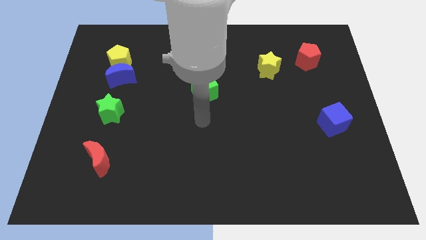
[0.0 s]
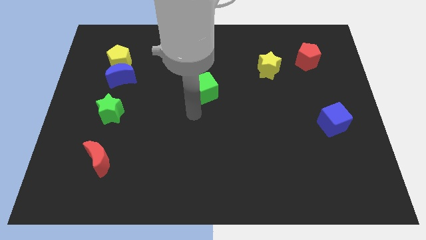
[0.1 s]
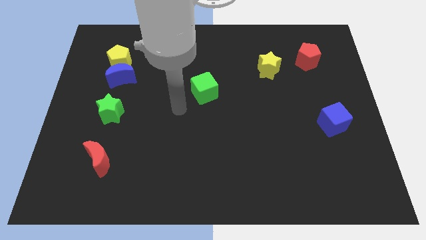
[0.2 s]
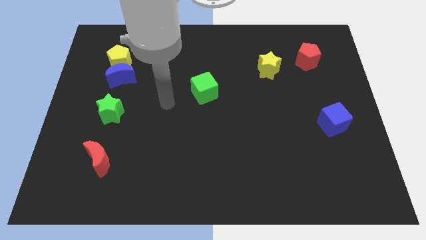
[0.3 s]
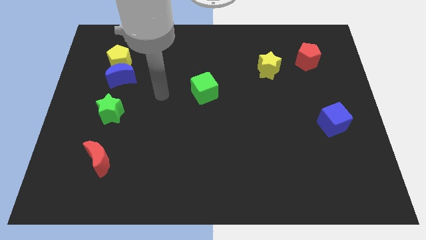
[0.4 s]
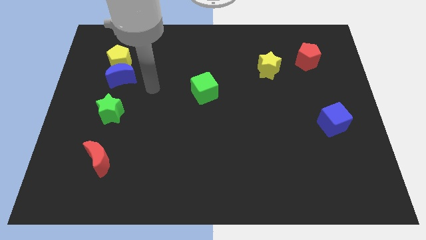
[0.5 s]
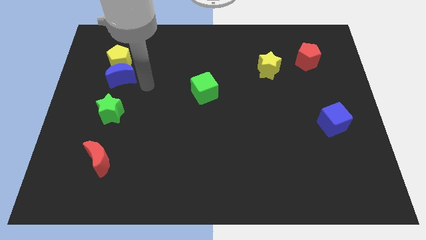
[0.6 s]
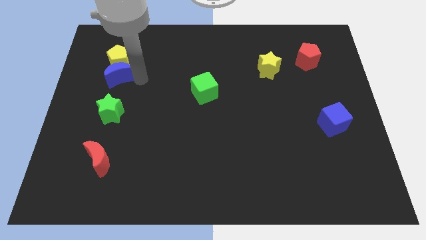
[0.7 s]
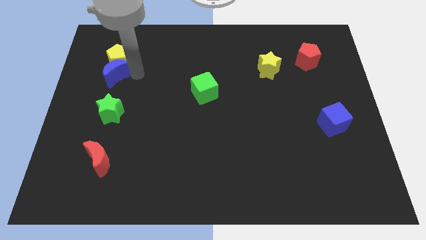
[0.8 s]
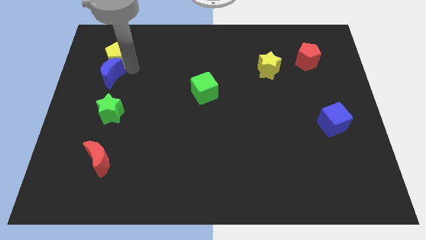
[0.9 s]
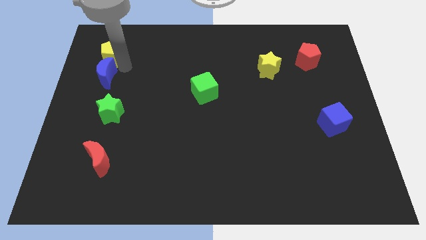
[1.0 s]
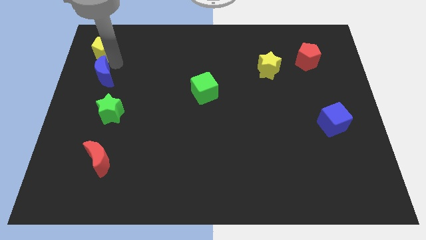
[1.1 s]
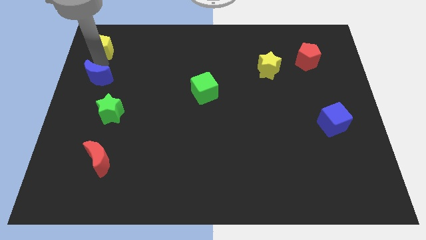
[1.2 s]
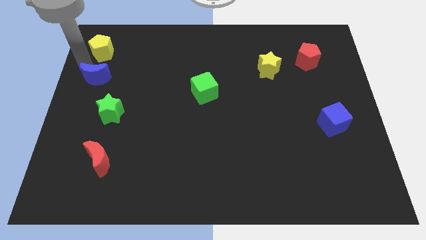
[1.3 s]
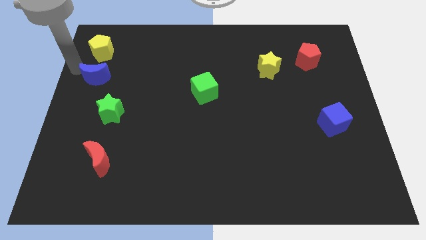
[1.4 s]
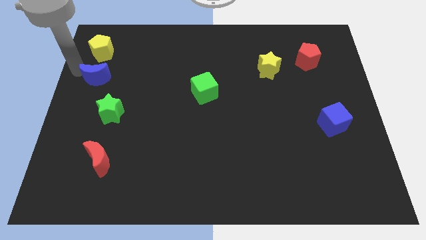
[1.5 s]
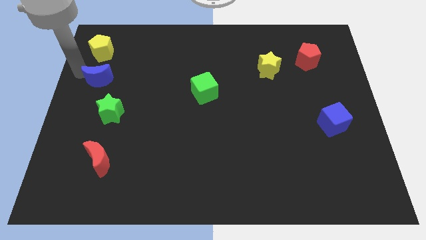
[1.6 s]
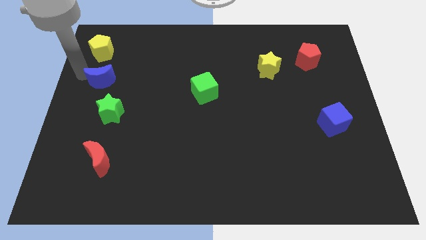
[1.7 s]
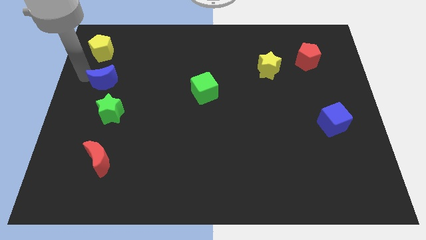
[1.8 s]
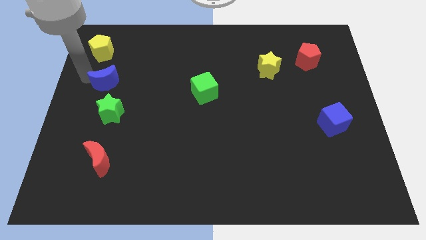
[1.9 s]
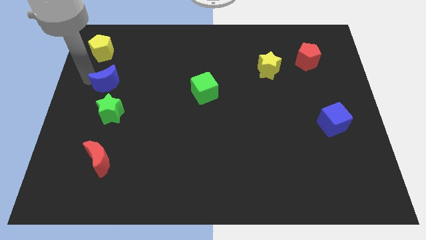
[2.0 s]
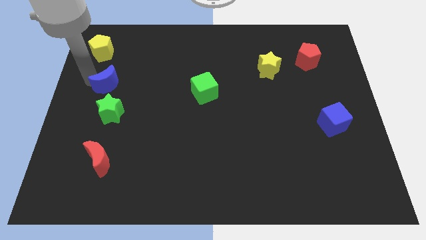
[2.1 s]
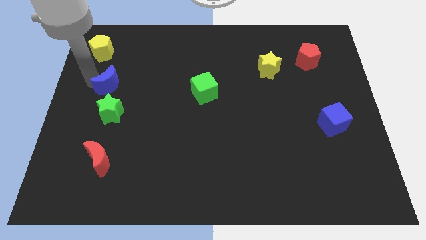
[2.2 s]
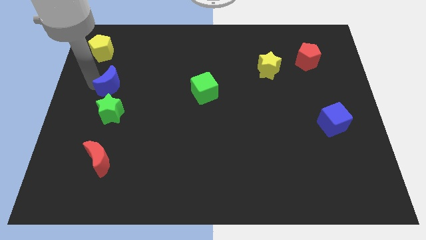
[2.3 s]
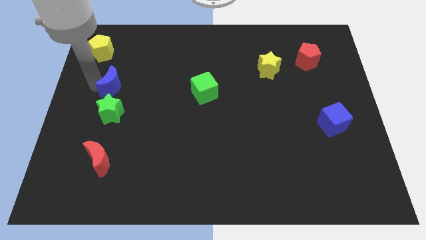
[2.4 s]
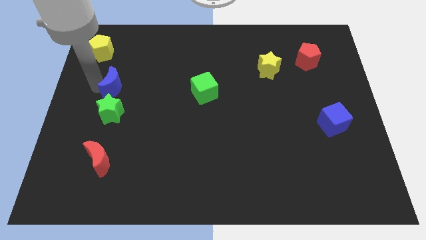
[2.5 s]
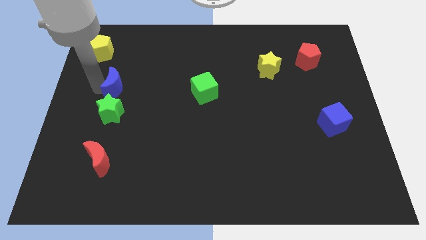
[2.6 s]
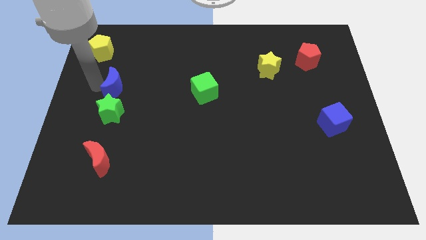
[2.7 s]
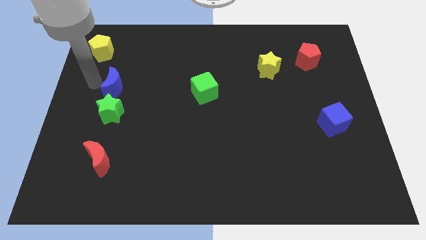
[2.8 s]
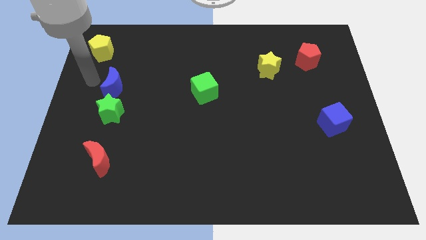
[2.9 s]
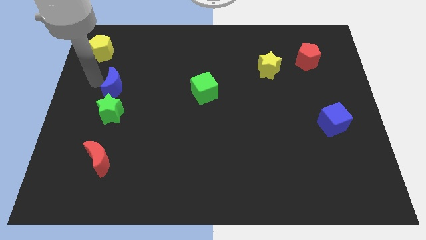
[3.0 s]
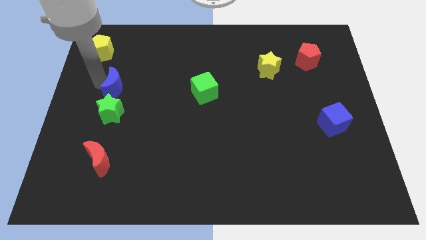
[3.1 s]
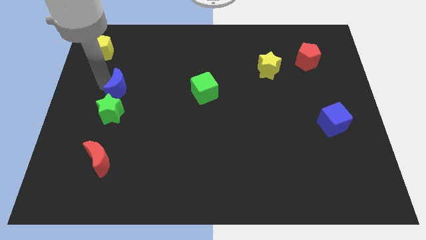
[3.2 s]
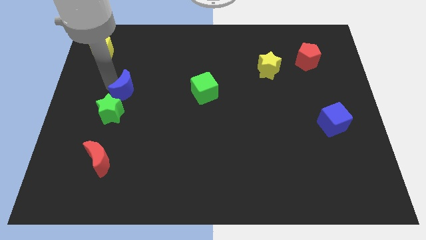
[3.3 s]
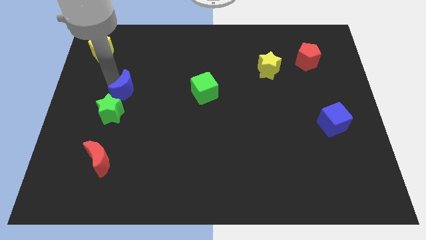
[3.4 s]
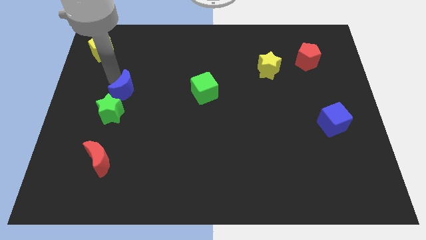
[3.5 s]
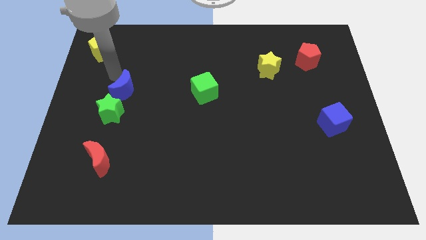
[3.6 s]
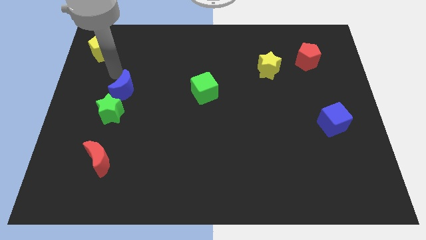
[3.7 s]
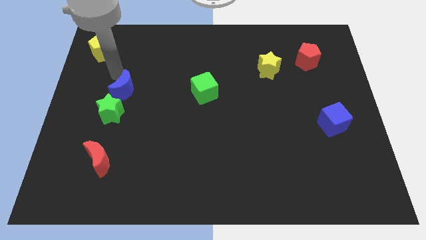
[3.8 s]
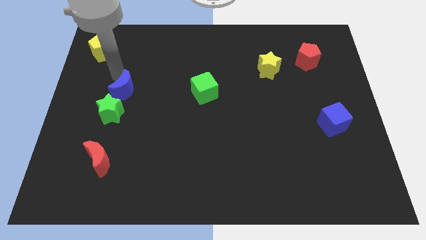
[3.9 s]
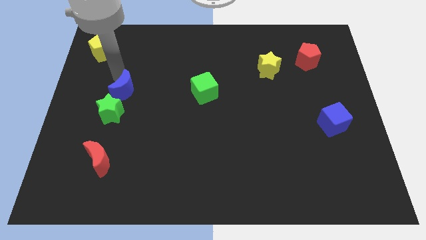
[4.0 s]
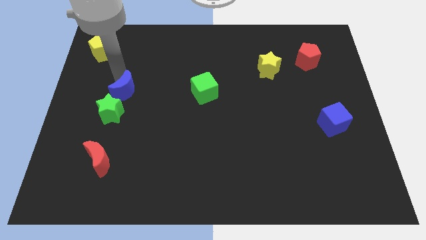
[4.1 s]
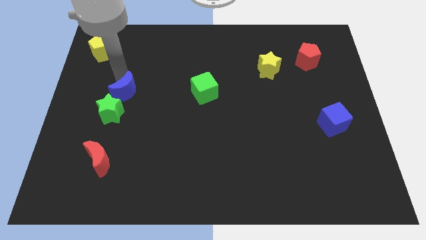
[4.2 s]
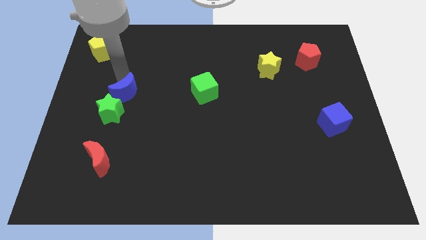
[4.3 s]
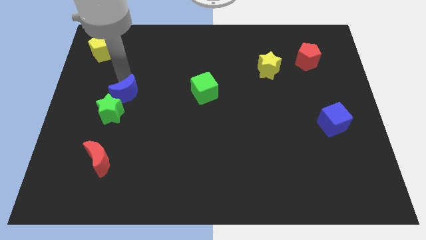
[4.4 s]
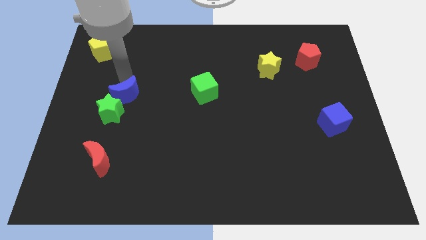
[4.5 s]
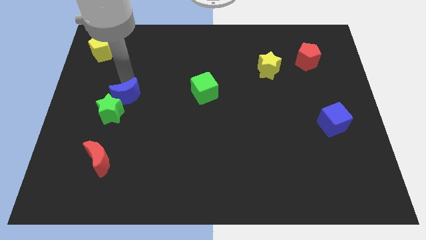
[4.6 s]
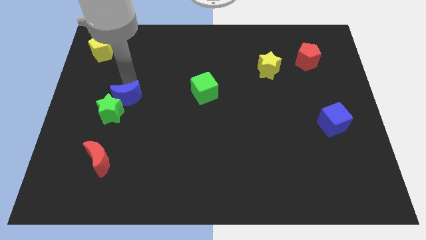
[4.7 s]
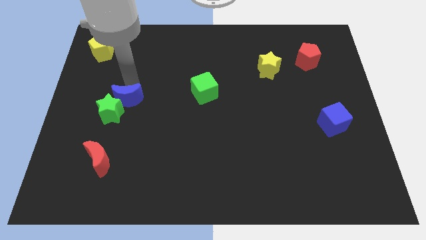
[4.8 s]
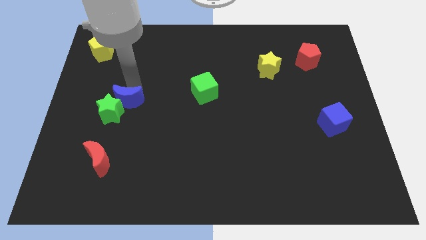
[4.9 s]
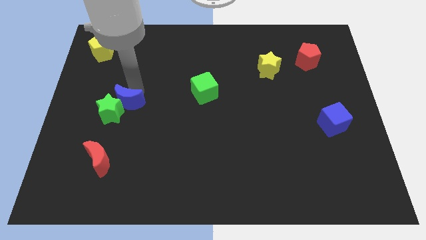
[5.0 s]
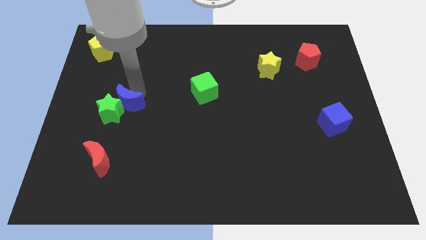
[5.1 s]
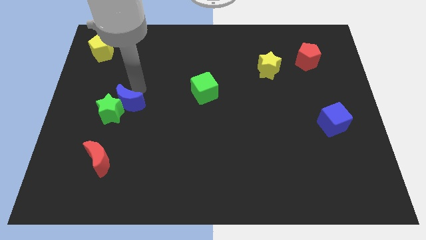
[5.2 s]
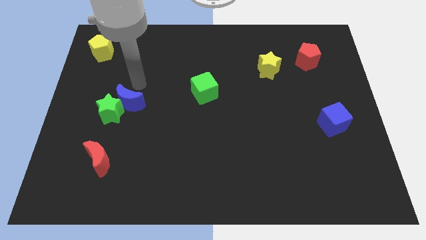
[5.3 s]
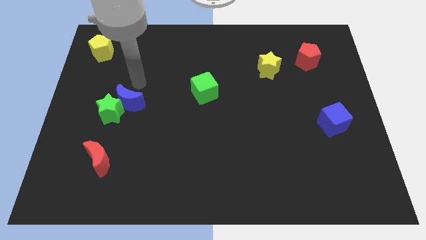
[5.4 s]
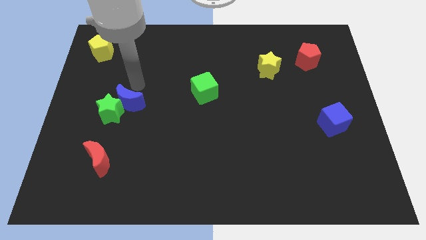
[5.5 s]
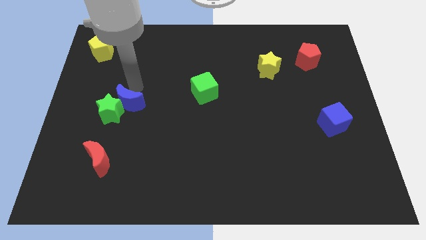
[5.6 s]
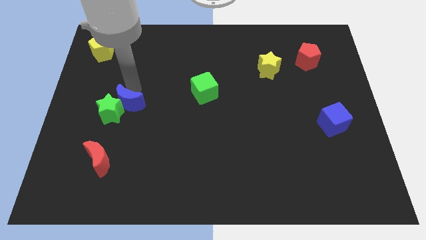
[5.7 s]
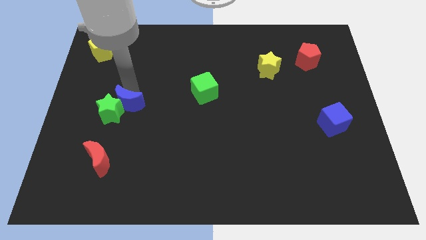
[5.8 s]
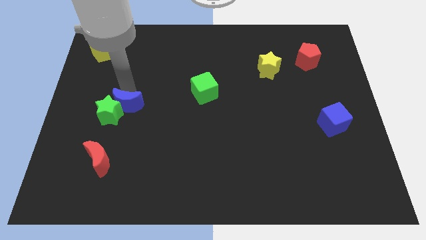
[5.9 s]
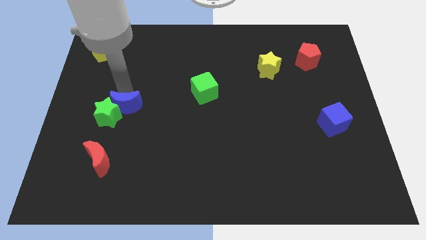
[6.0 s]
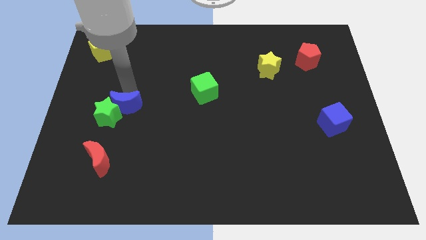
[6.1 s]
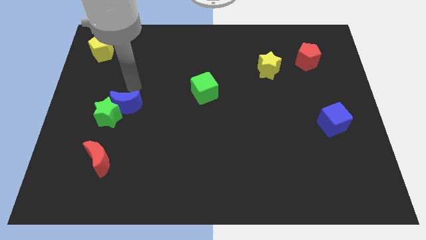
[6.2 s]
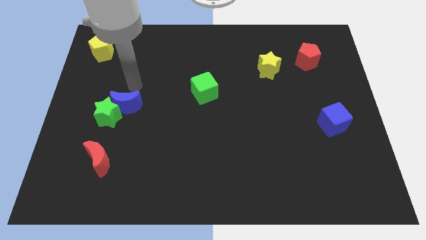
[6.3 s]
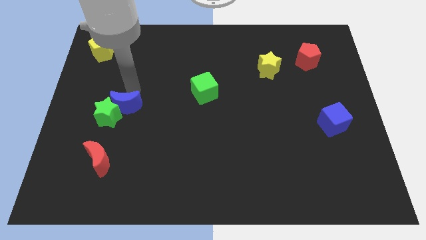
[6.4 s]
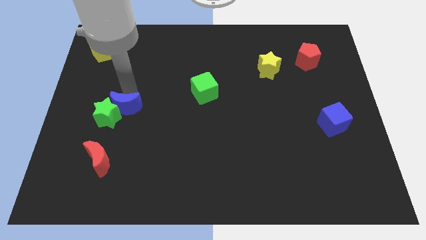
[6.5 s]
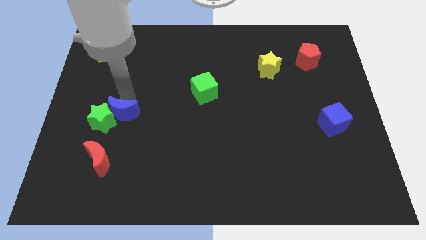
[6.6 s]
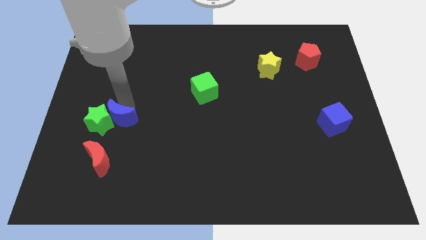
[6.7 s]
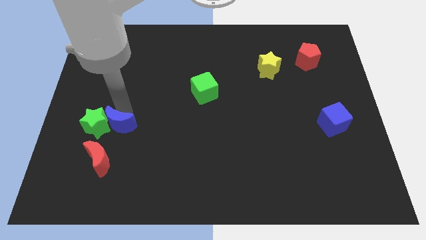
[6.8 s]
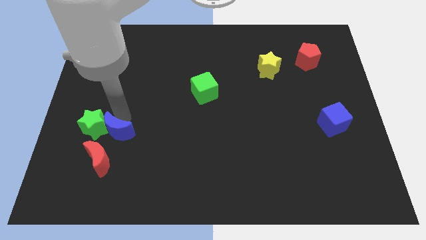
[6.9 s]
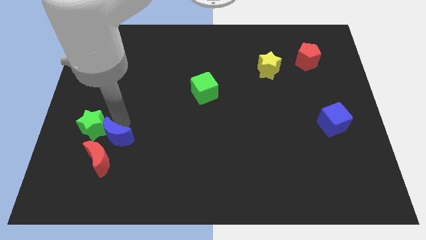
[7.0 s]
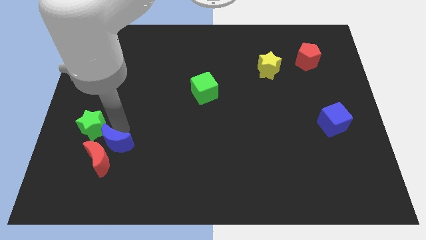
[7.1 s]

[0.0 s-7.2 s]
put the blue moon next to the red moon

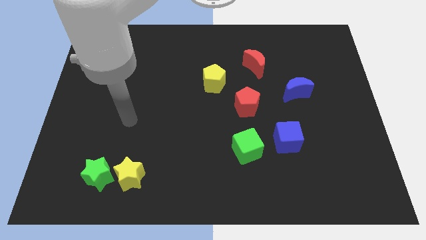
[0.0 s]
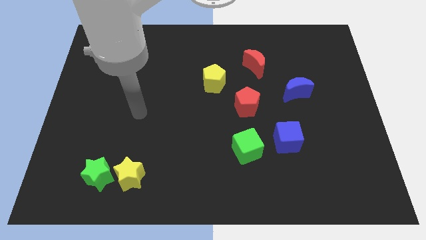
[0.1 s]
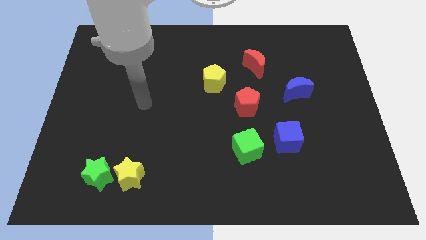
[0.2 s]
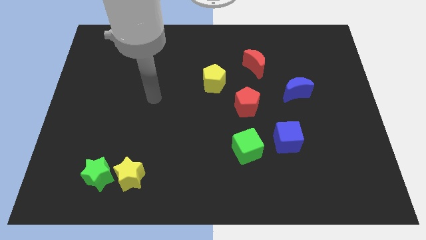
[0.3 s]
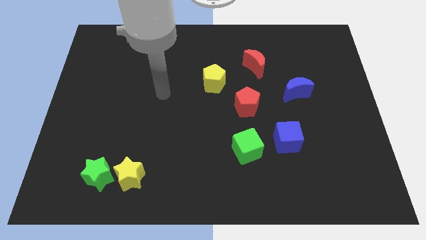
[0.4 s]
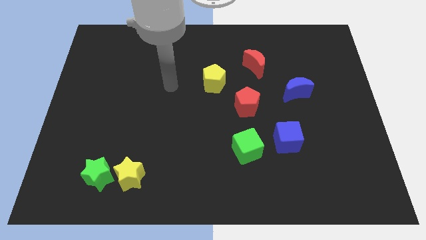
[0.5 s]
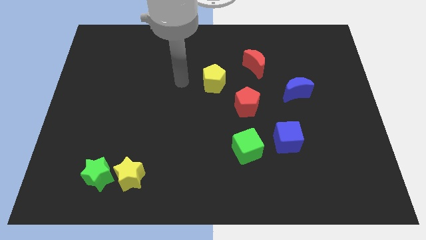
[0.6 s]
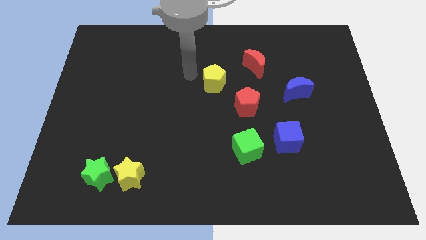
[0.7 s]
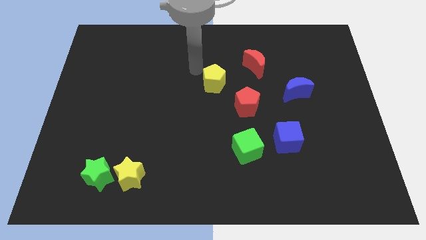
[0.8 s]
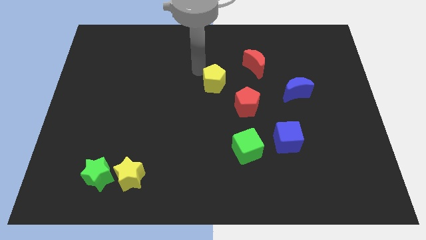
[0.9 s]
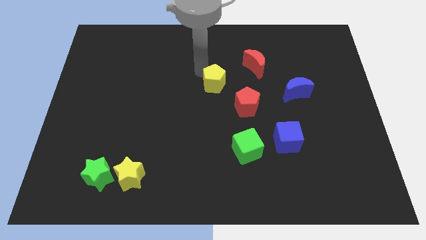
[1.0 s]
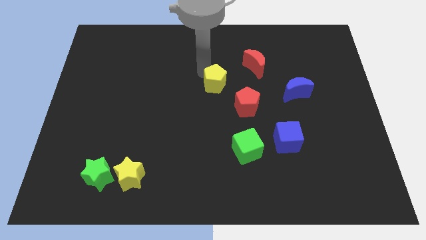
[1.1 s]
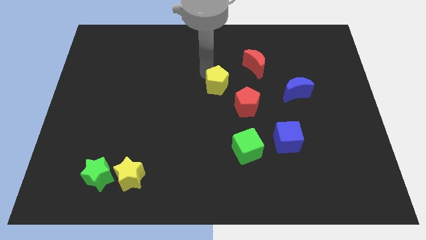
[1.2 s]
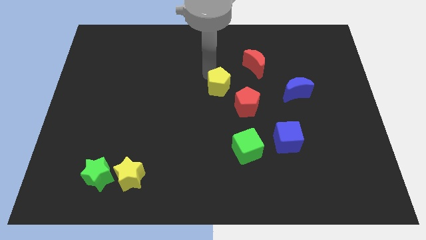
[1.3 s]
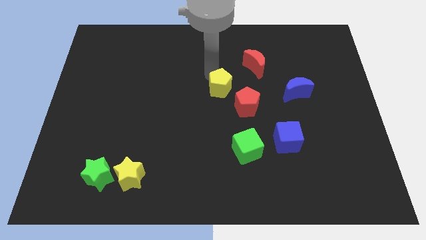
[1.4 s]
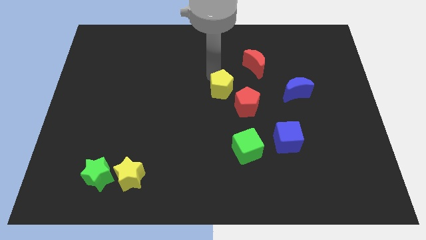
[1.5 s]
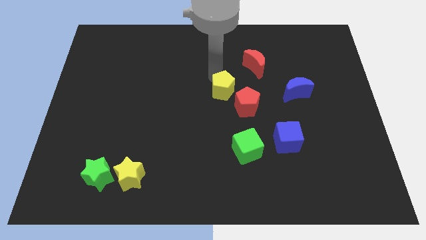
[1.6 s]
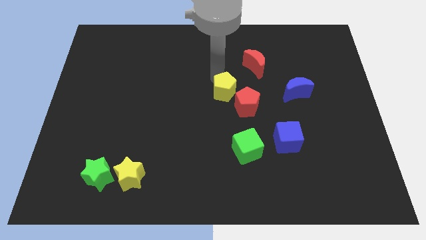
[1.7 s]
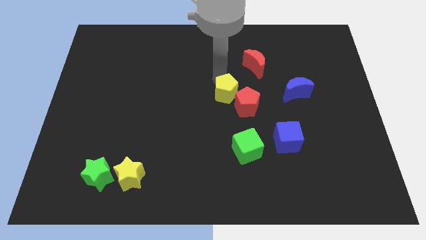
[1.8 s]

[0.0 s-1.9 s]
put the yellow pentagon close to the red pentagon
